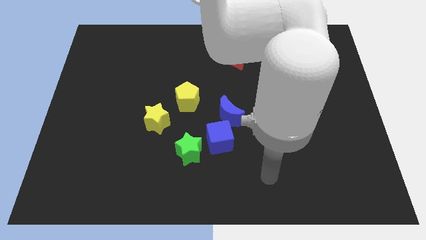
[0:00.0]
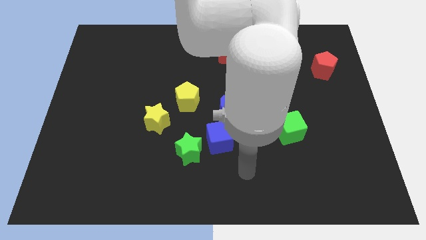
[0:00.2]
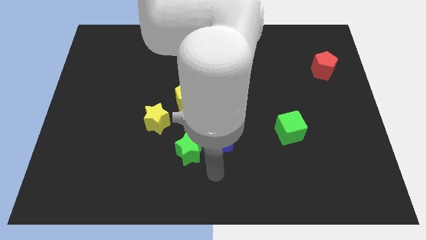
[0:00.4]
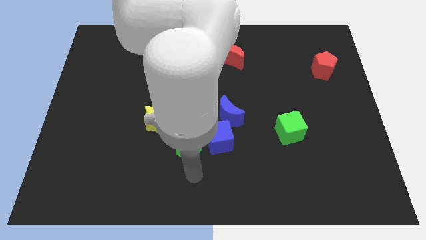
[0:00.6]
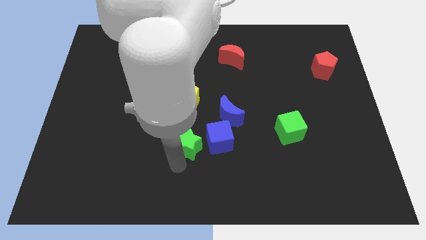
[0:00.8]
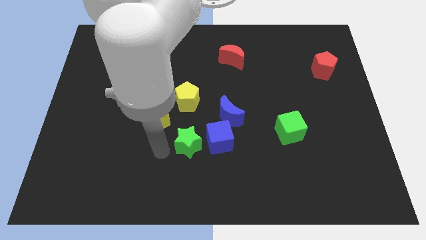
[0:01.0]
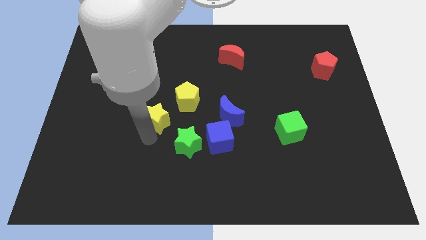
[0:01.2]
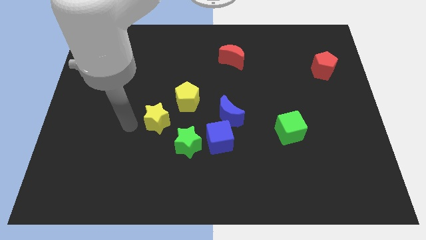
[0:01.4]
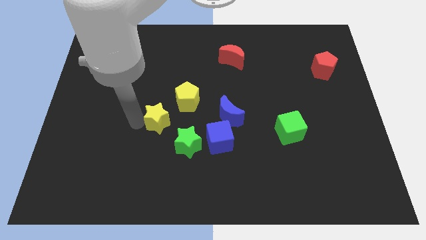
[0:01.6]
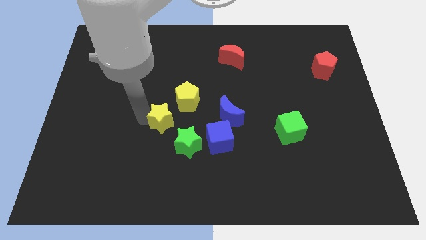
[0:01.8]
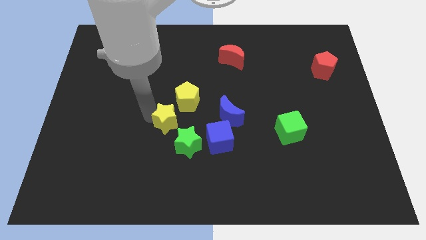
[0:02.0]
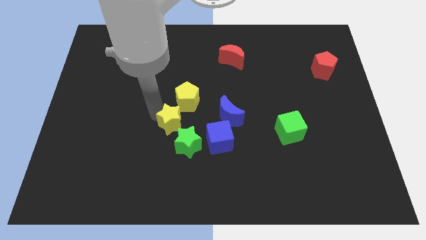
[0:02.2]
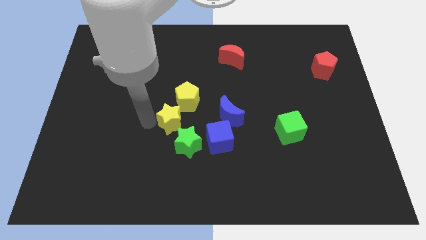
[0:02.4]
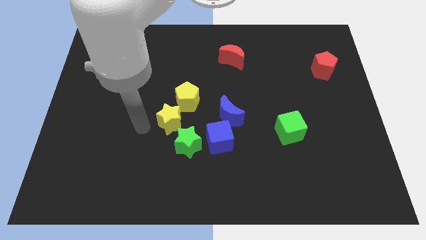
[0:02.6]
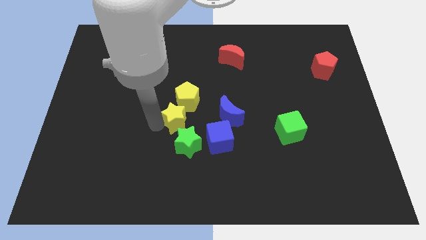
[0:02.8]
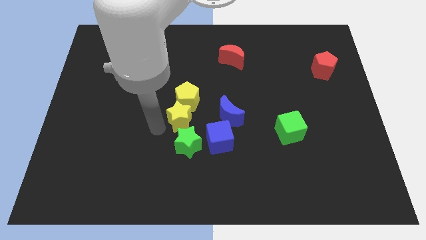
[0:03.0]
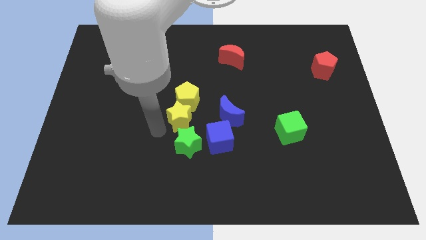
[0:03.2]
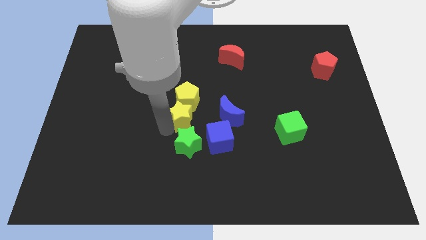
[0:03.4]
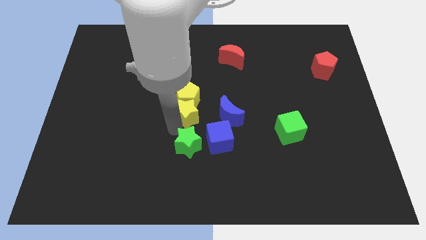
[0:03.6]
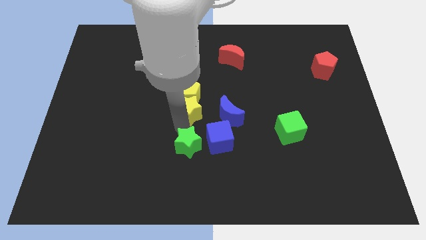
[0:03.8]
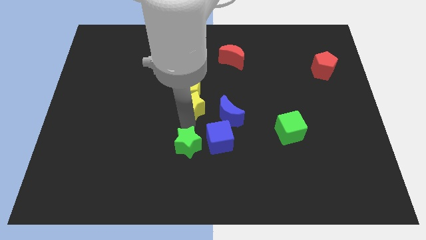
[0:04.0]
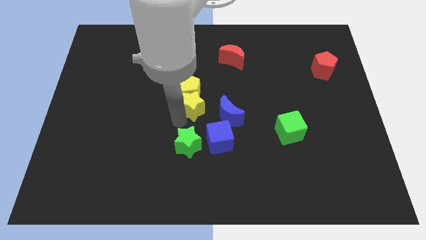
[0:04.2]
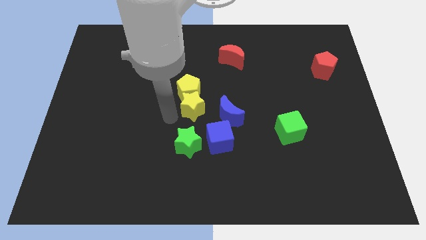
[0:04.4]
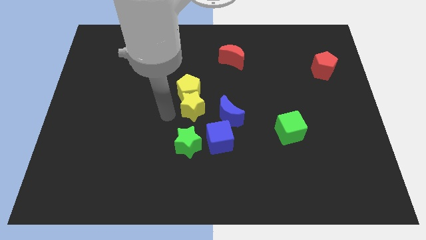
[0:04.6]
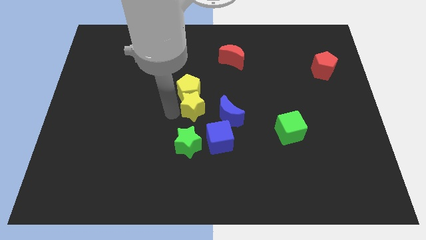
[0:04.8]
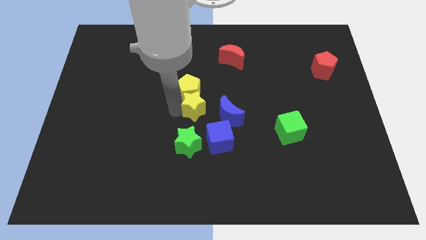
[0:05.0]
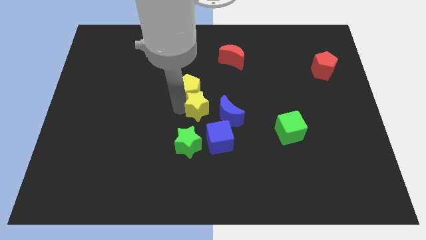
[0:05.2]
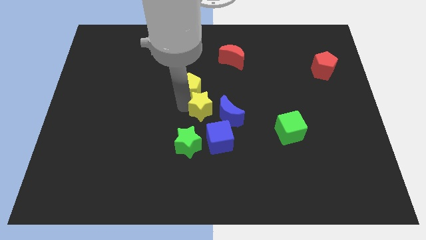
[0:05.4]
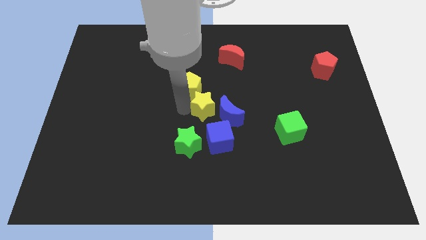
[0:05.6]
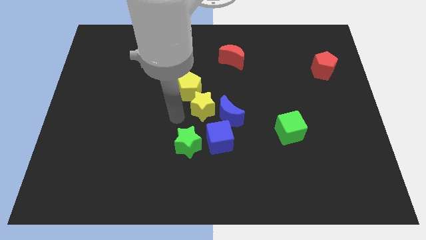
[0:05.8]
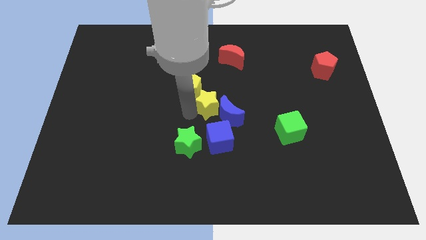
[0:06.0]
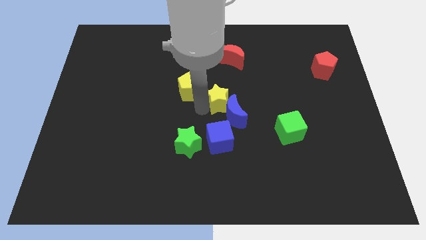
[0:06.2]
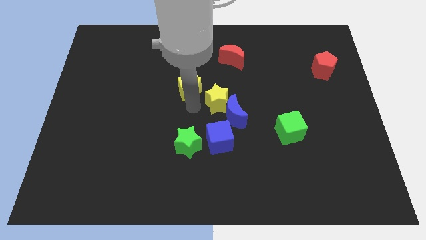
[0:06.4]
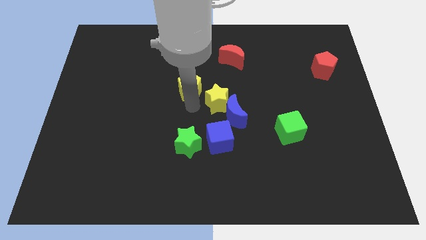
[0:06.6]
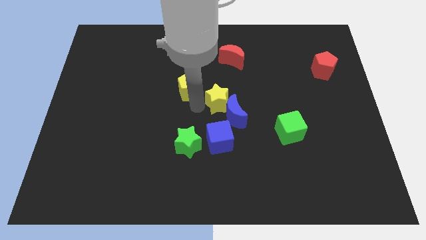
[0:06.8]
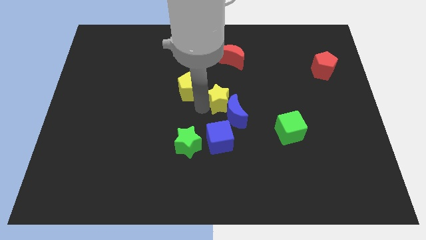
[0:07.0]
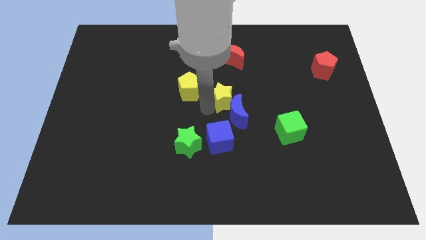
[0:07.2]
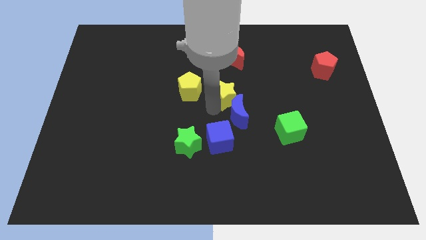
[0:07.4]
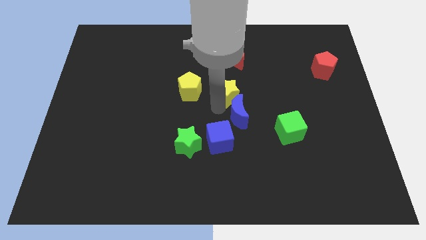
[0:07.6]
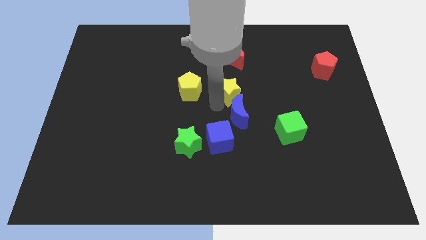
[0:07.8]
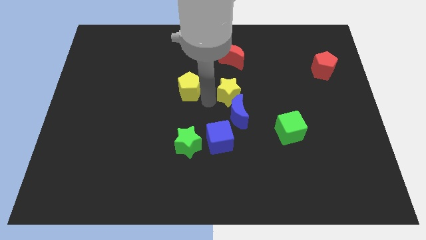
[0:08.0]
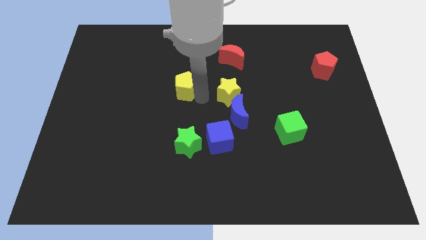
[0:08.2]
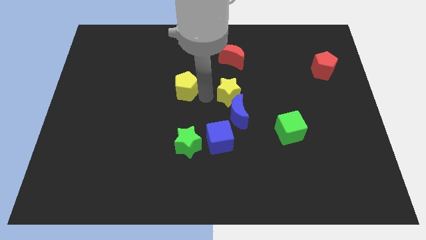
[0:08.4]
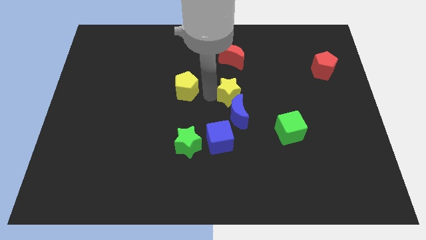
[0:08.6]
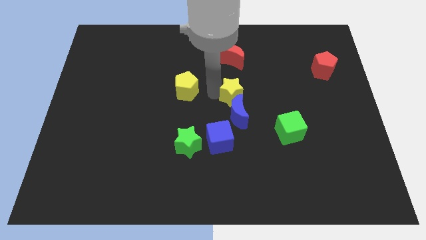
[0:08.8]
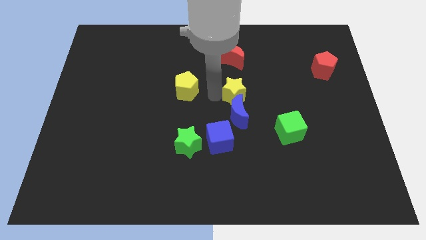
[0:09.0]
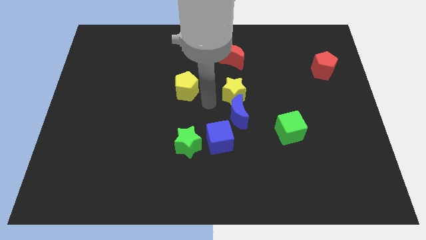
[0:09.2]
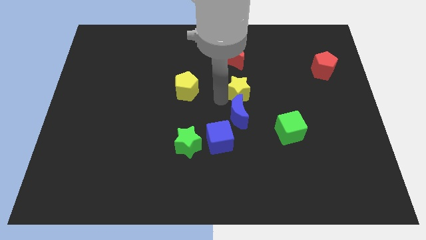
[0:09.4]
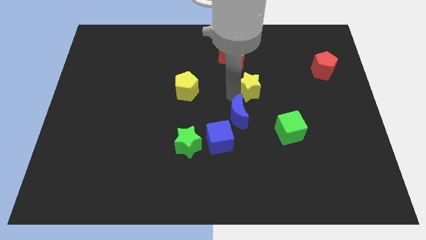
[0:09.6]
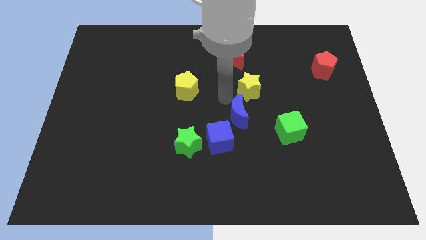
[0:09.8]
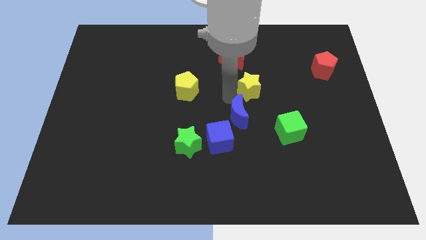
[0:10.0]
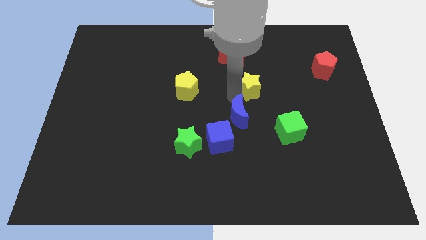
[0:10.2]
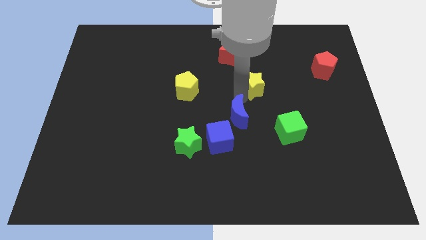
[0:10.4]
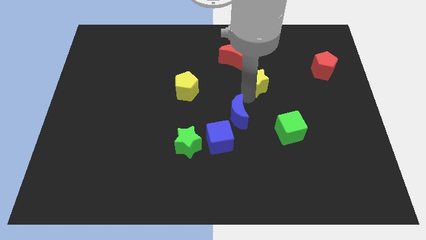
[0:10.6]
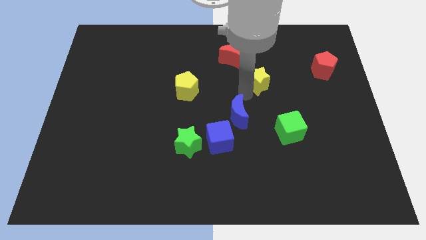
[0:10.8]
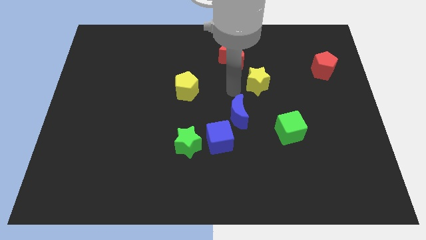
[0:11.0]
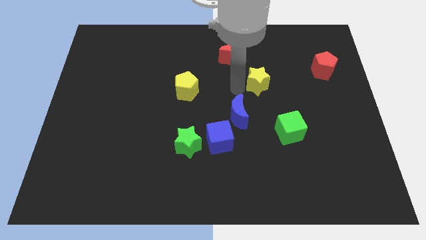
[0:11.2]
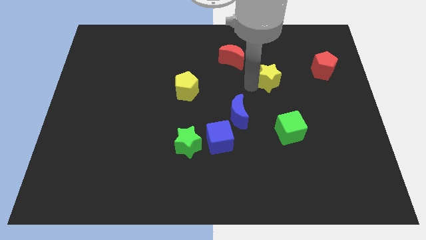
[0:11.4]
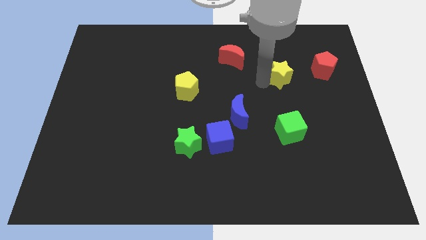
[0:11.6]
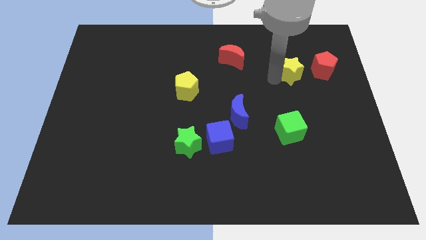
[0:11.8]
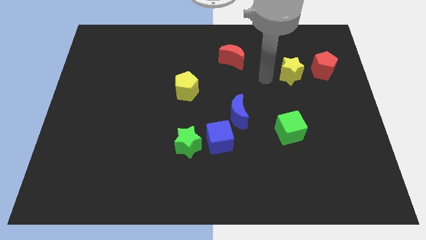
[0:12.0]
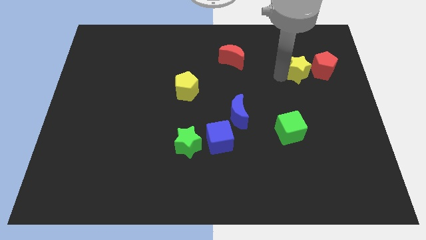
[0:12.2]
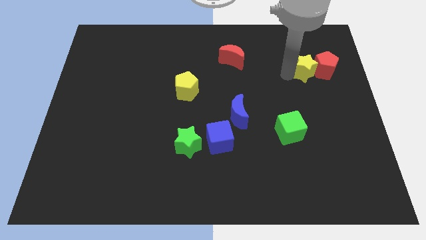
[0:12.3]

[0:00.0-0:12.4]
push the yellow star to the red pentagon

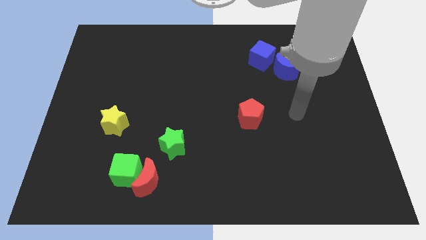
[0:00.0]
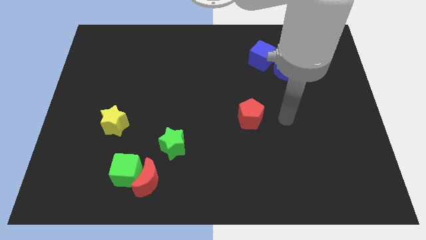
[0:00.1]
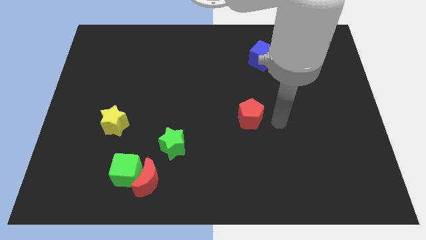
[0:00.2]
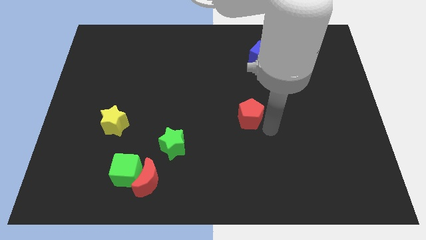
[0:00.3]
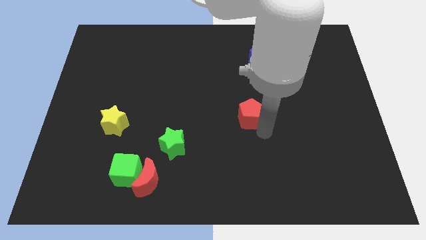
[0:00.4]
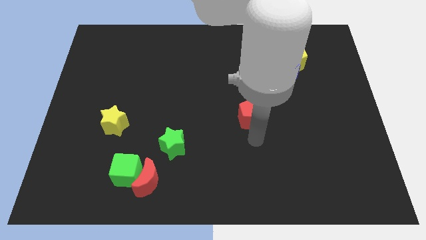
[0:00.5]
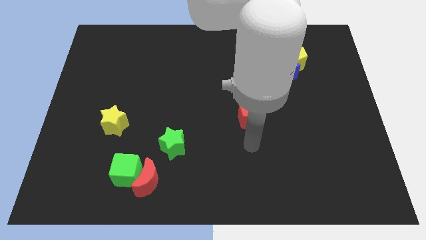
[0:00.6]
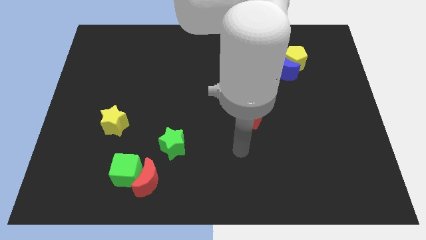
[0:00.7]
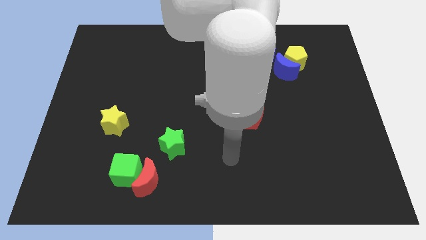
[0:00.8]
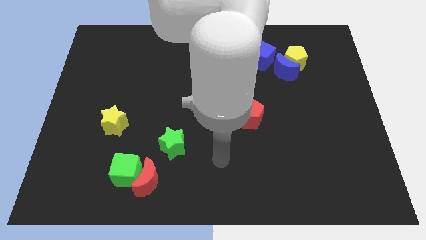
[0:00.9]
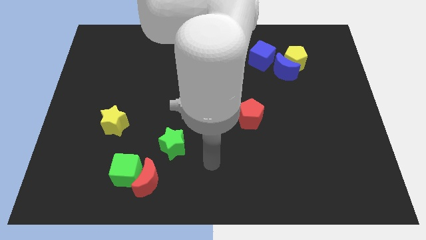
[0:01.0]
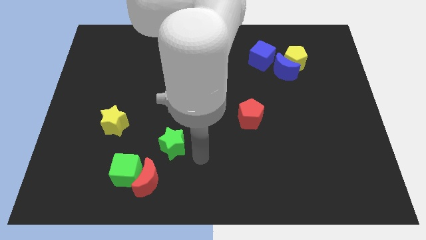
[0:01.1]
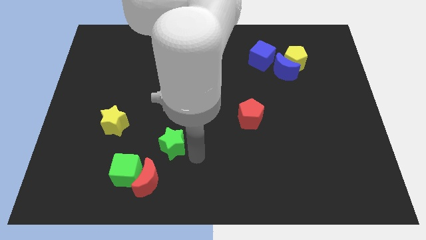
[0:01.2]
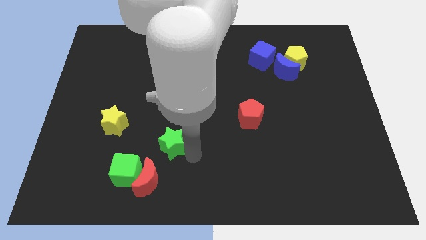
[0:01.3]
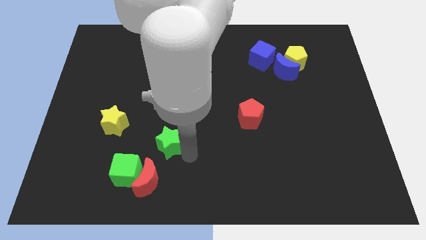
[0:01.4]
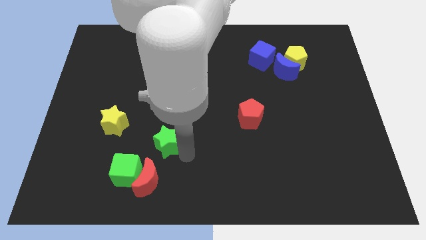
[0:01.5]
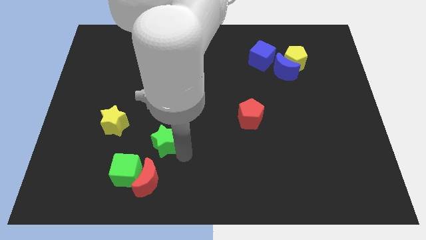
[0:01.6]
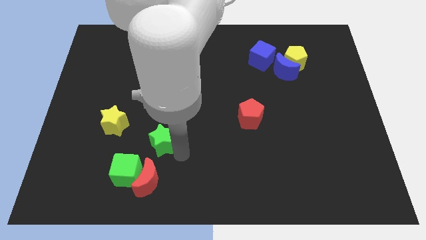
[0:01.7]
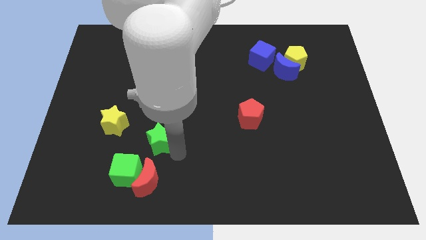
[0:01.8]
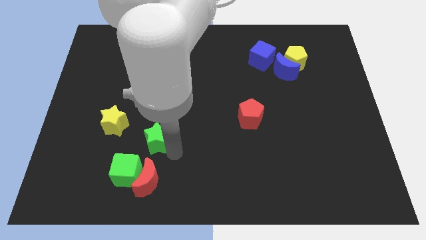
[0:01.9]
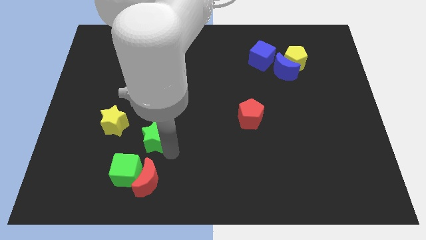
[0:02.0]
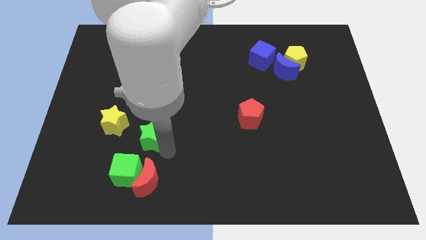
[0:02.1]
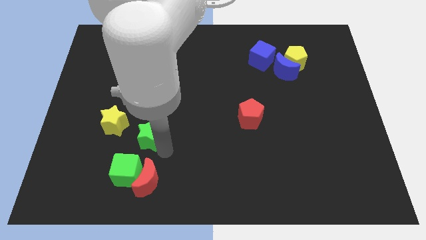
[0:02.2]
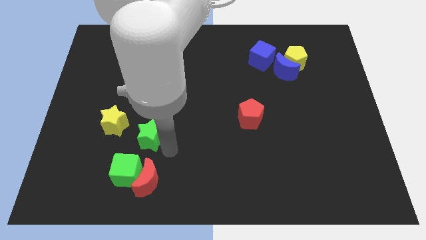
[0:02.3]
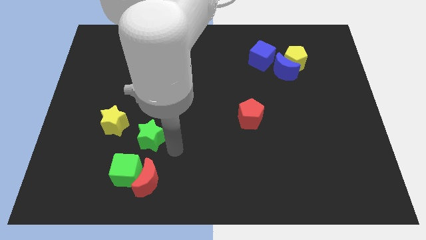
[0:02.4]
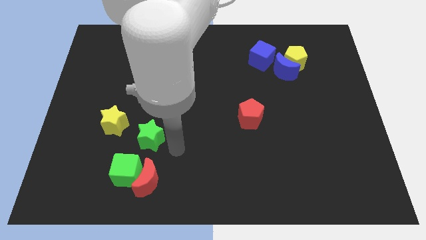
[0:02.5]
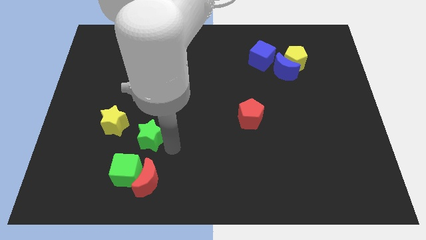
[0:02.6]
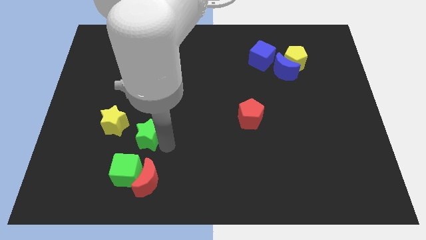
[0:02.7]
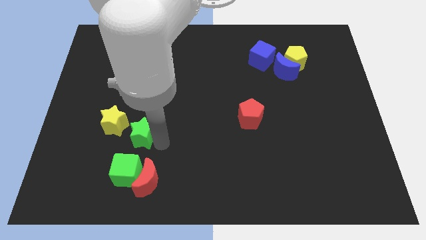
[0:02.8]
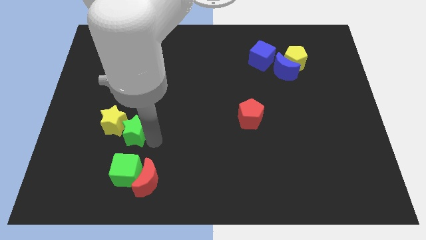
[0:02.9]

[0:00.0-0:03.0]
move the green star towards the yellow star
